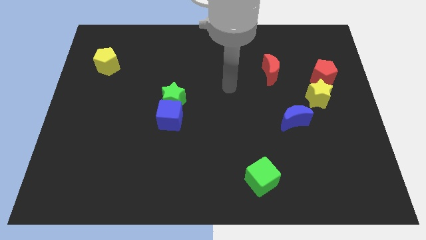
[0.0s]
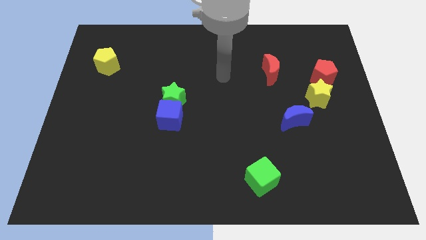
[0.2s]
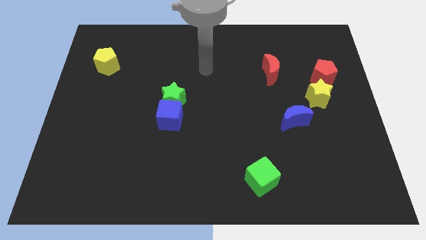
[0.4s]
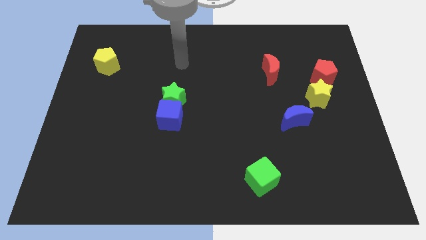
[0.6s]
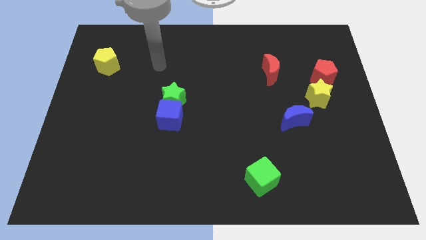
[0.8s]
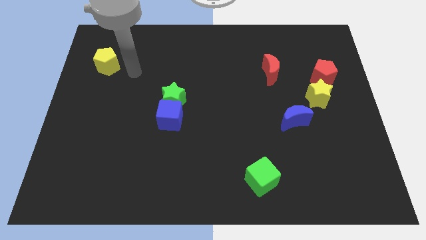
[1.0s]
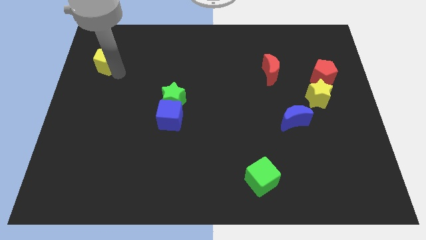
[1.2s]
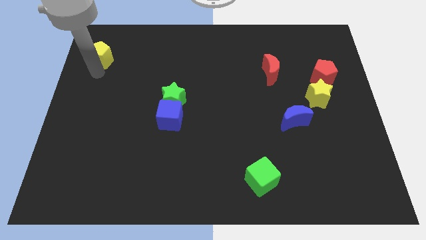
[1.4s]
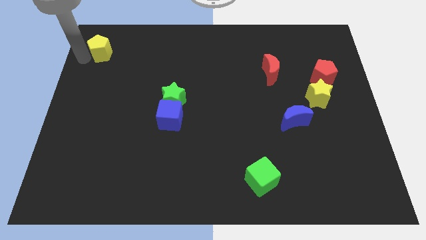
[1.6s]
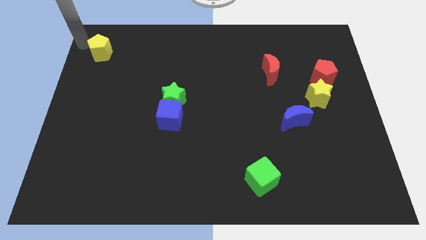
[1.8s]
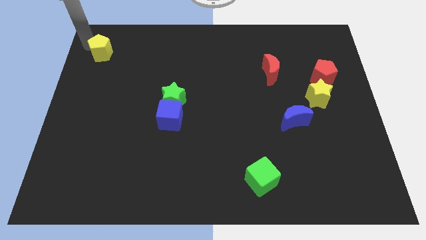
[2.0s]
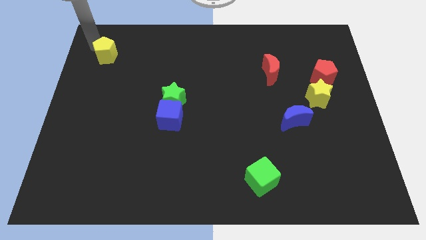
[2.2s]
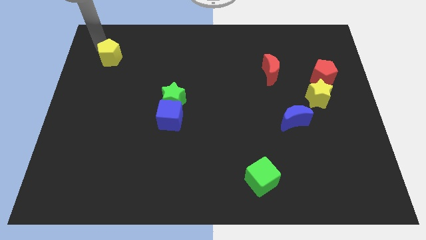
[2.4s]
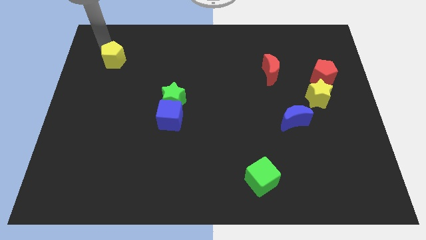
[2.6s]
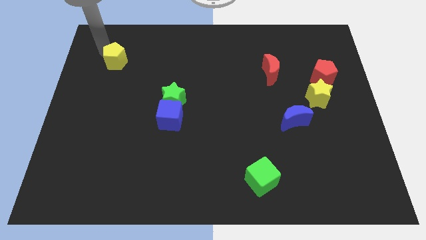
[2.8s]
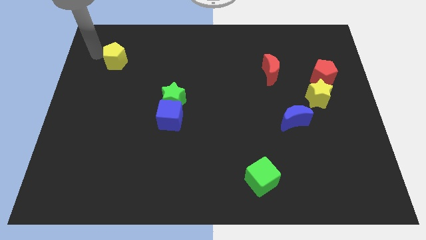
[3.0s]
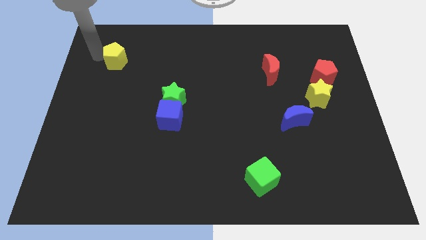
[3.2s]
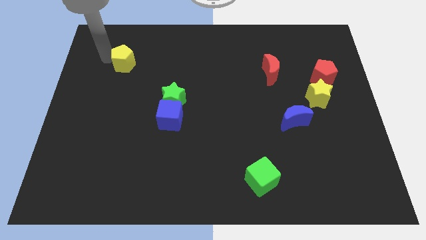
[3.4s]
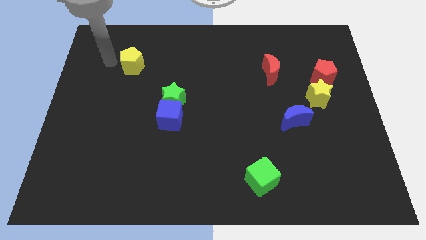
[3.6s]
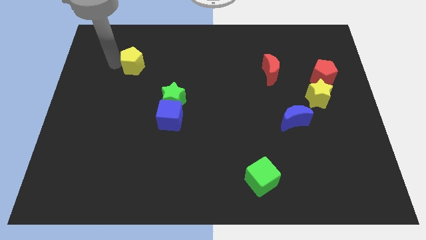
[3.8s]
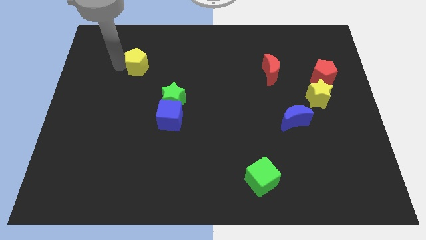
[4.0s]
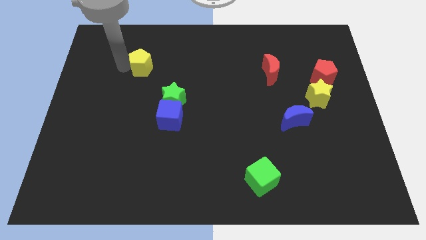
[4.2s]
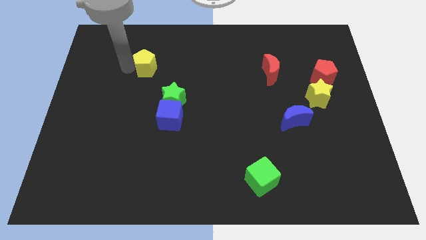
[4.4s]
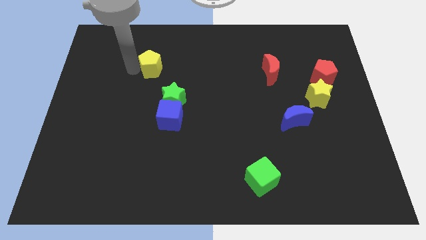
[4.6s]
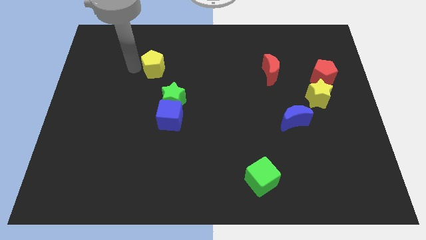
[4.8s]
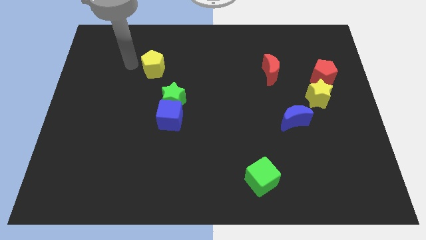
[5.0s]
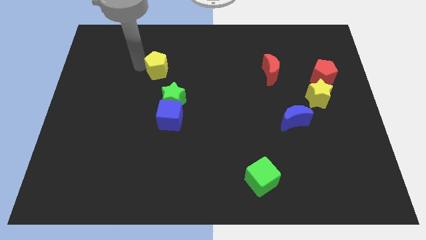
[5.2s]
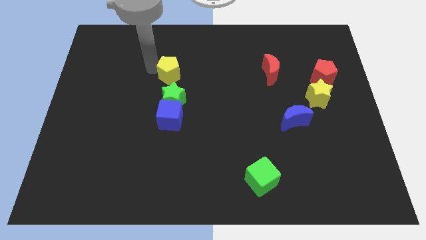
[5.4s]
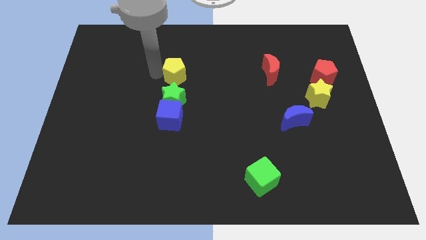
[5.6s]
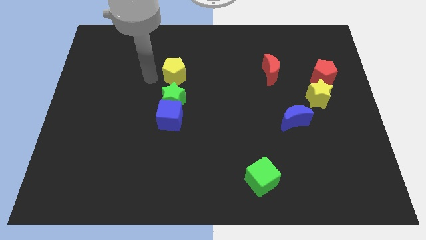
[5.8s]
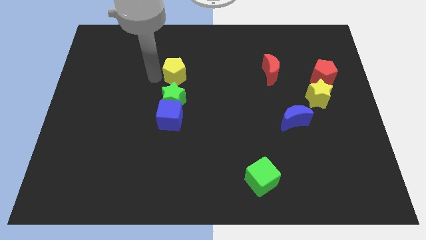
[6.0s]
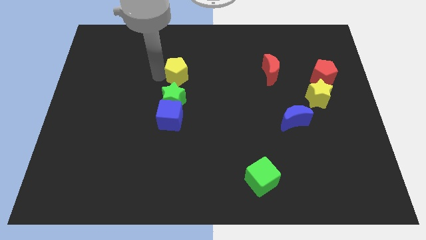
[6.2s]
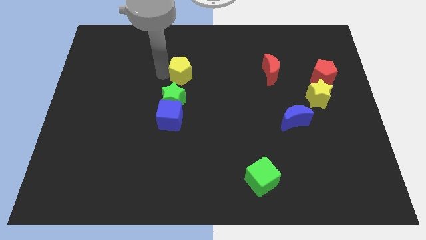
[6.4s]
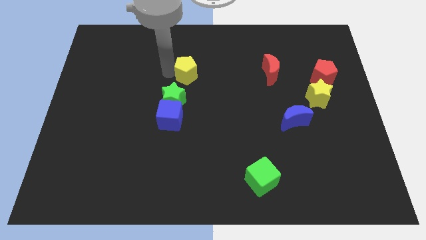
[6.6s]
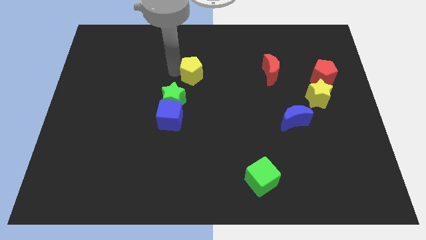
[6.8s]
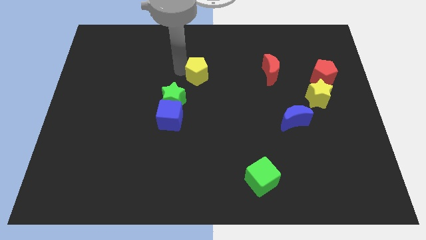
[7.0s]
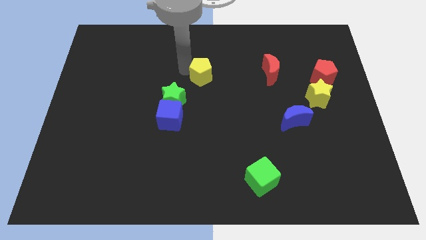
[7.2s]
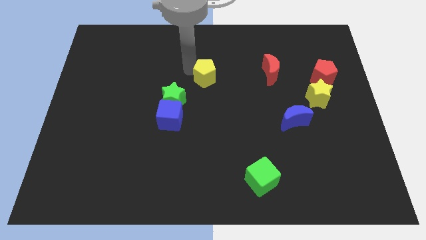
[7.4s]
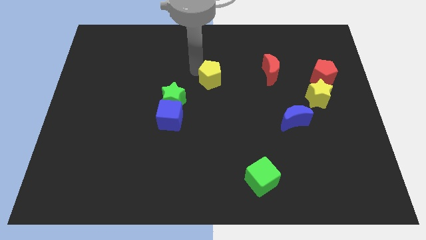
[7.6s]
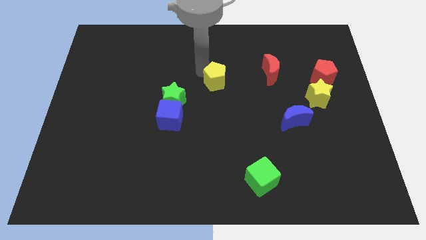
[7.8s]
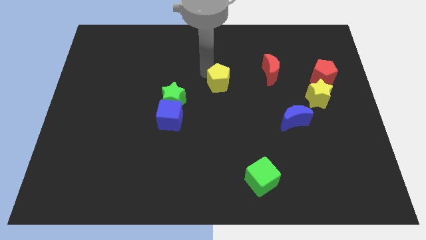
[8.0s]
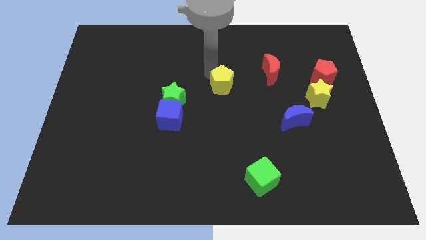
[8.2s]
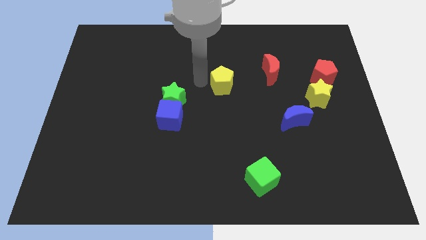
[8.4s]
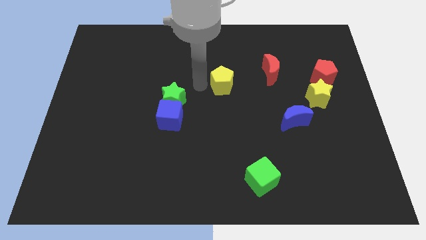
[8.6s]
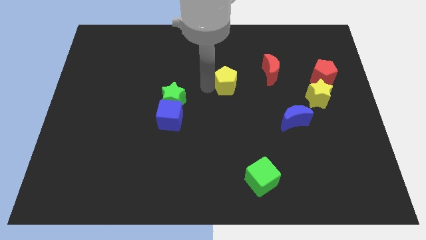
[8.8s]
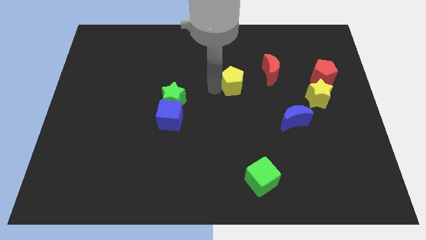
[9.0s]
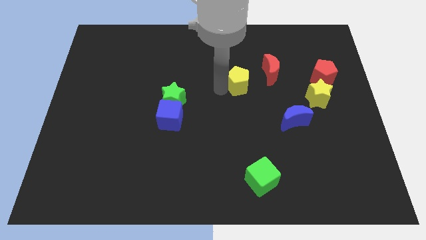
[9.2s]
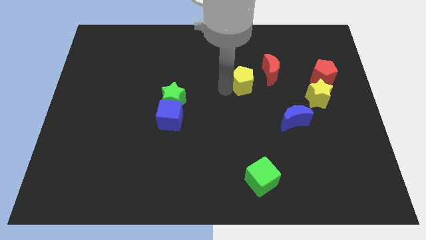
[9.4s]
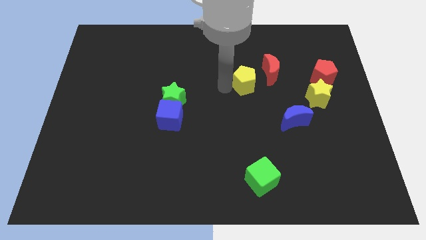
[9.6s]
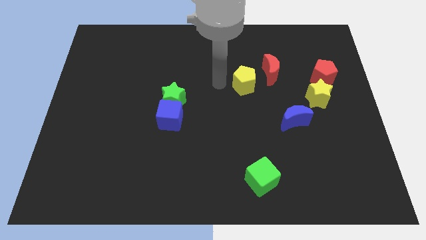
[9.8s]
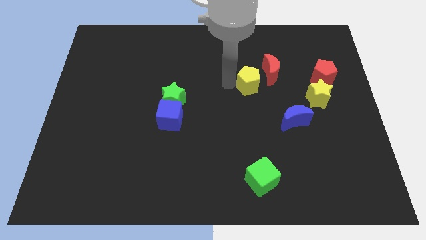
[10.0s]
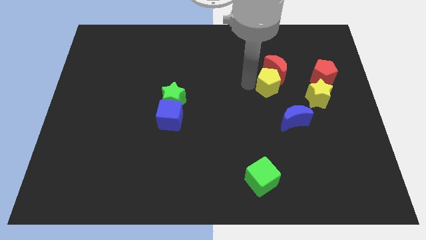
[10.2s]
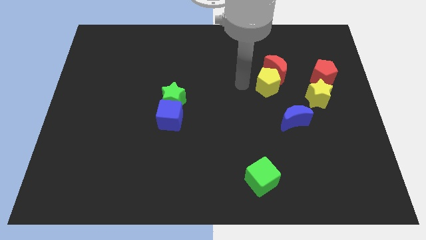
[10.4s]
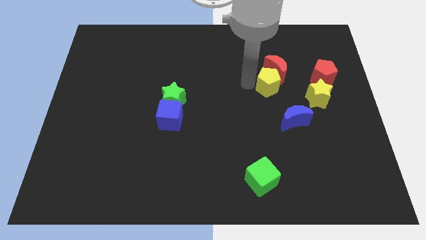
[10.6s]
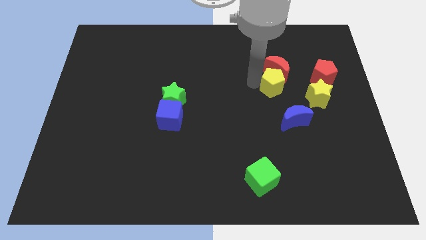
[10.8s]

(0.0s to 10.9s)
slide the yellow pentagon to the bottom right side of the red moon

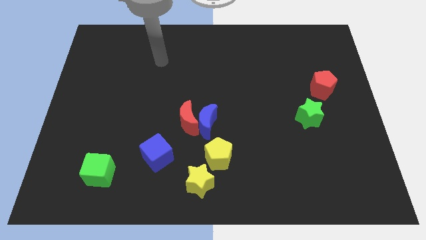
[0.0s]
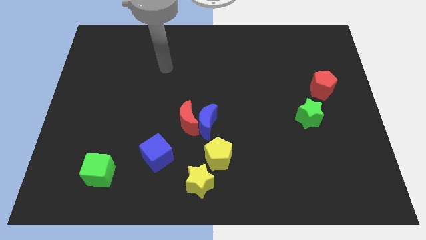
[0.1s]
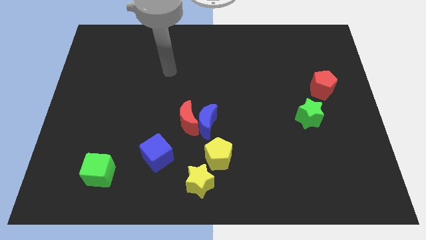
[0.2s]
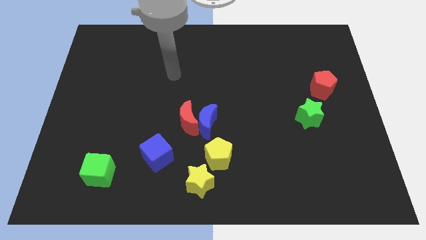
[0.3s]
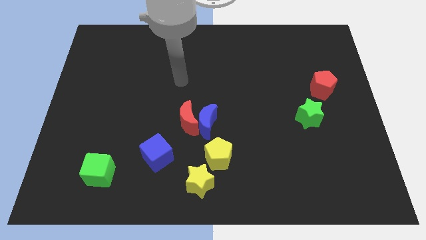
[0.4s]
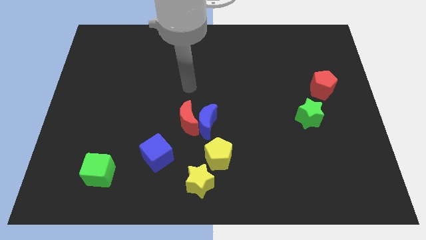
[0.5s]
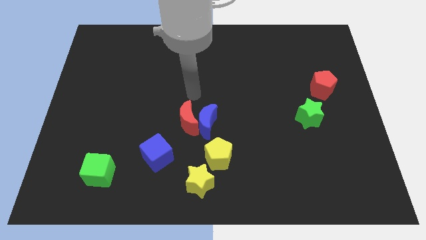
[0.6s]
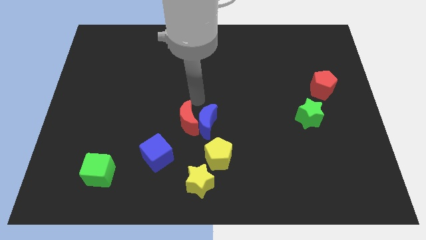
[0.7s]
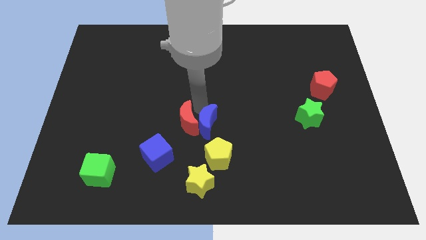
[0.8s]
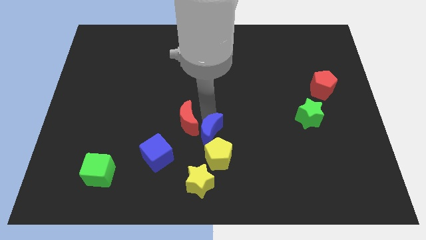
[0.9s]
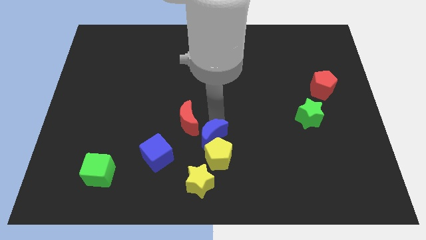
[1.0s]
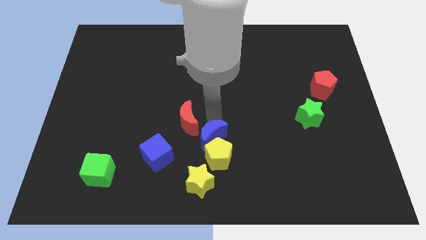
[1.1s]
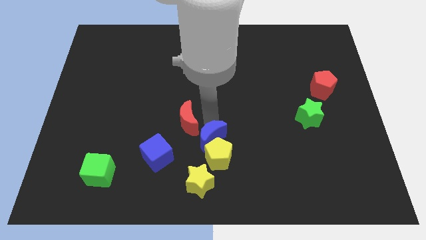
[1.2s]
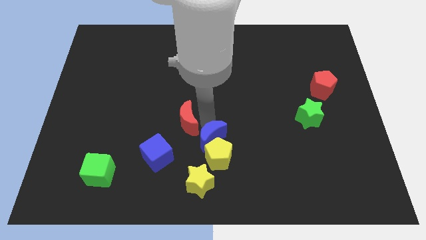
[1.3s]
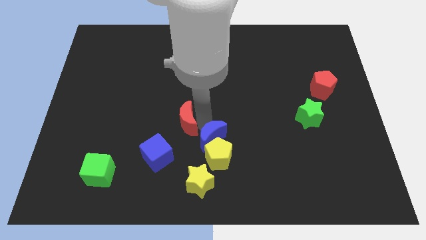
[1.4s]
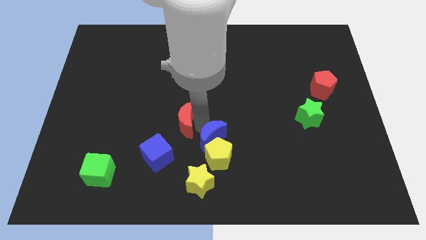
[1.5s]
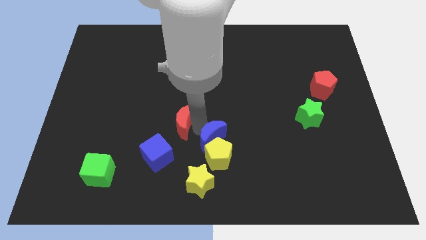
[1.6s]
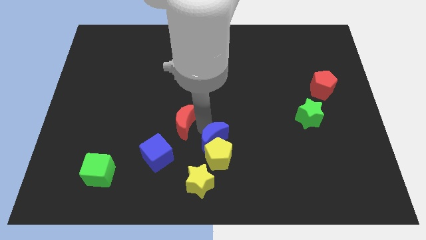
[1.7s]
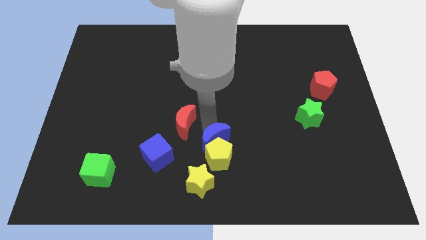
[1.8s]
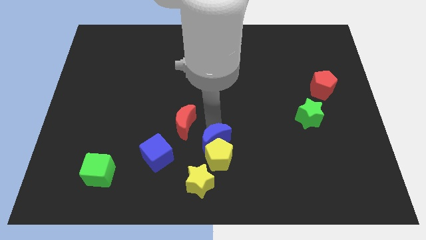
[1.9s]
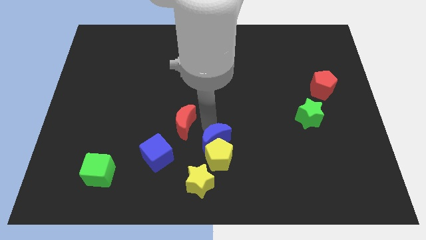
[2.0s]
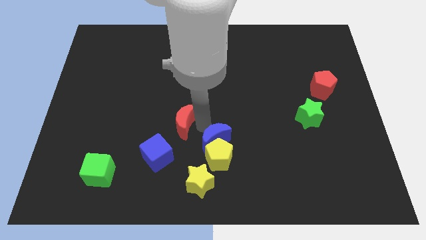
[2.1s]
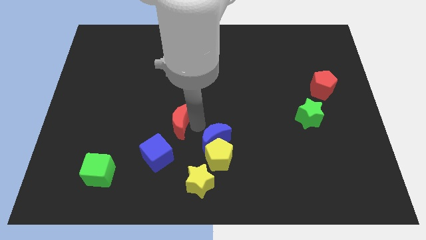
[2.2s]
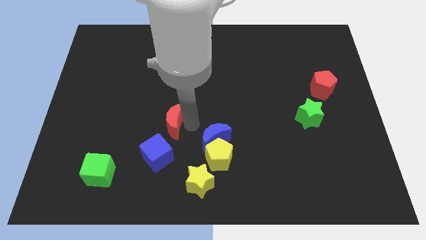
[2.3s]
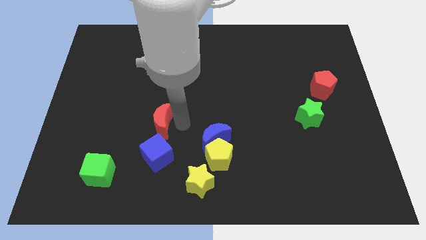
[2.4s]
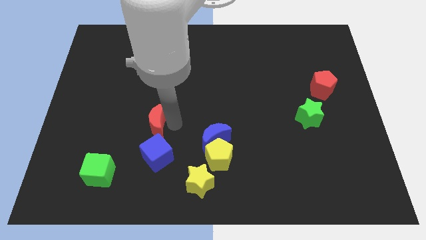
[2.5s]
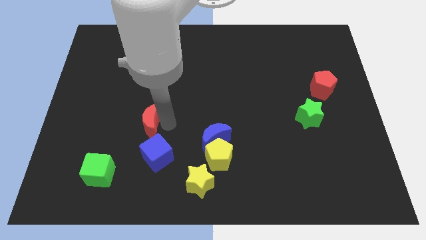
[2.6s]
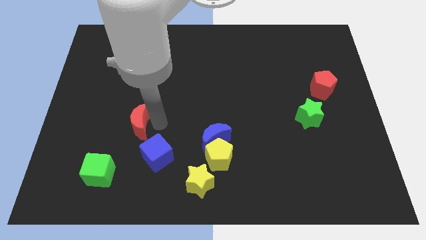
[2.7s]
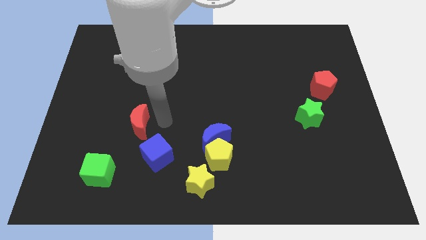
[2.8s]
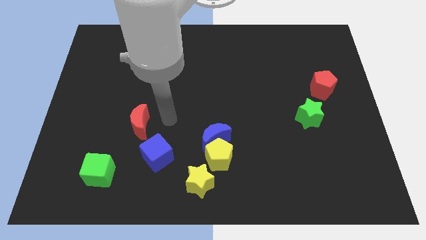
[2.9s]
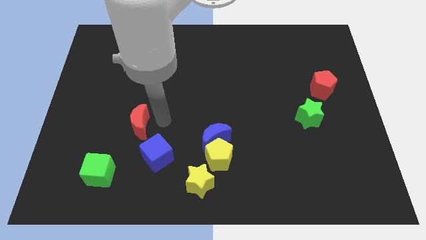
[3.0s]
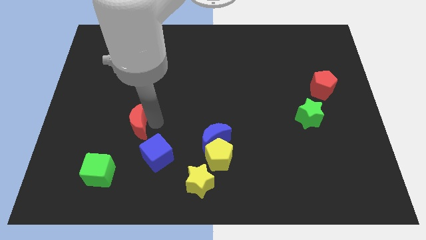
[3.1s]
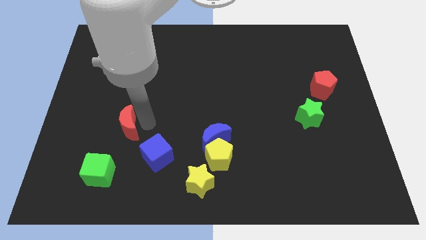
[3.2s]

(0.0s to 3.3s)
push the red moon to the top side of the green cube

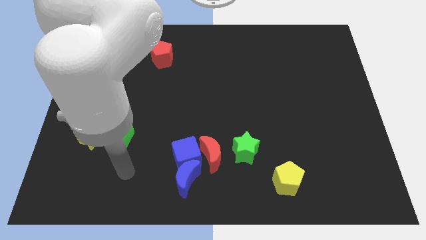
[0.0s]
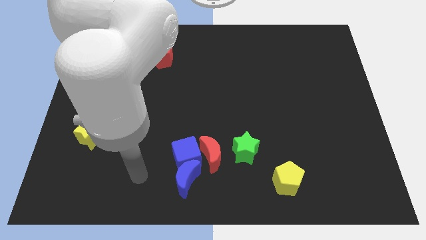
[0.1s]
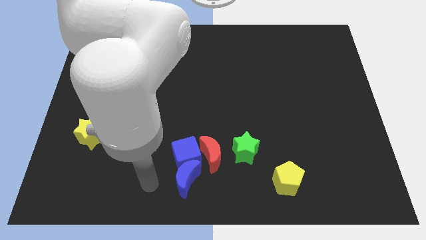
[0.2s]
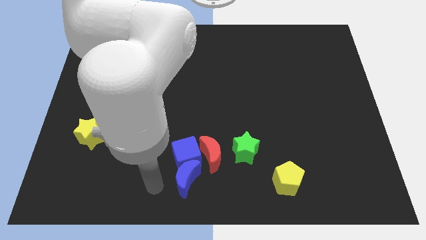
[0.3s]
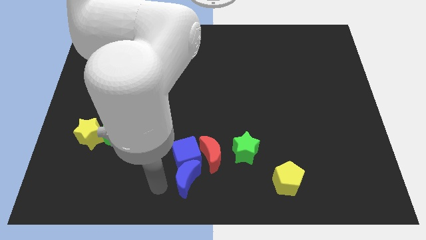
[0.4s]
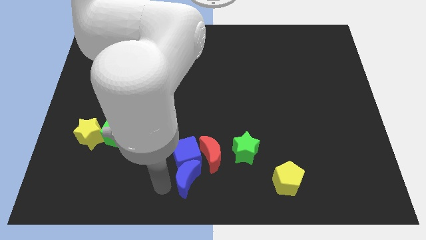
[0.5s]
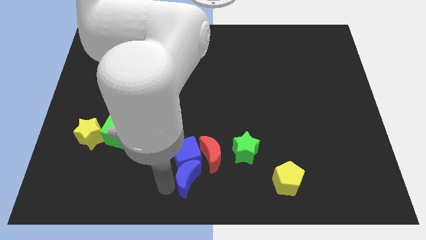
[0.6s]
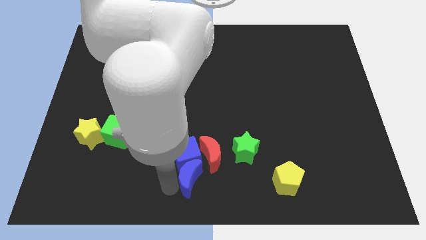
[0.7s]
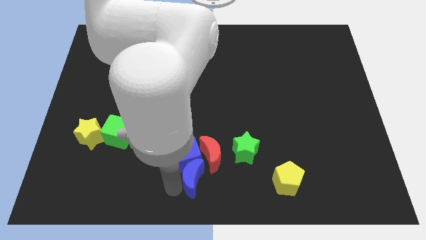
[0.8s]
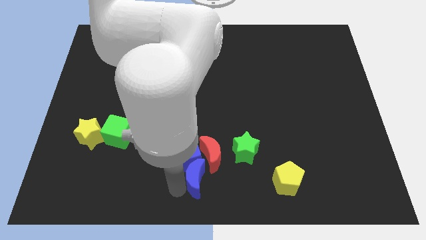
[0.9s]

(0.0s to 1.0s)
move the blue moon diagonally down and to the left of the green star
